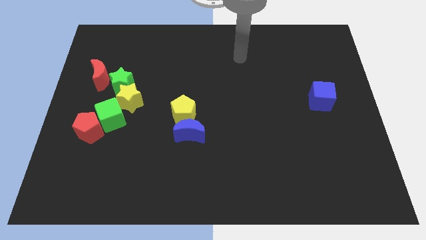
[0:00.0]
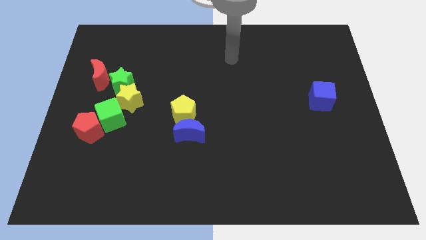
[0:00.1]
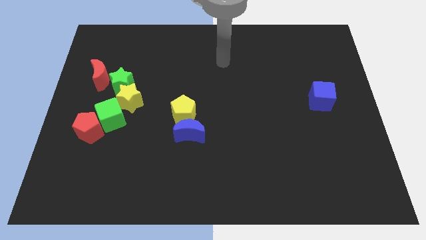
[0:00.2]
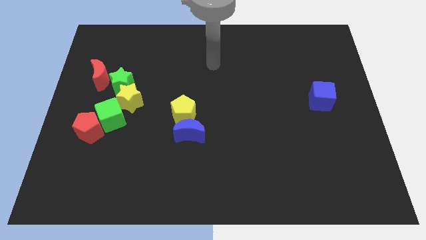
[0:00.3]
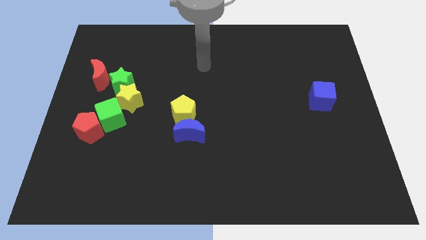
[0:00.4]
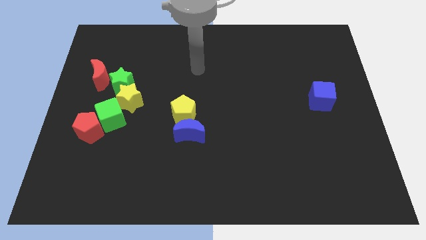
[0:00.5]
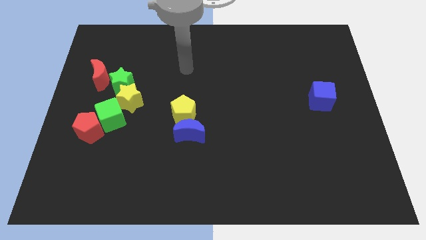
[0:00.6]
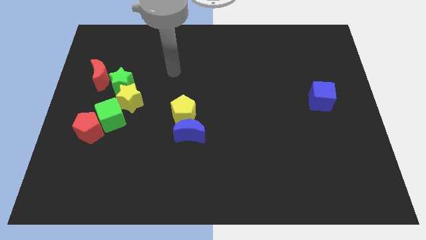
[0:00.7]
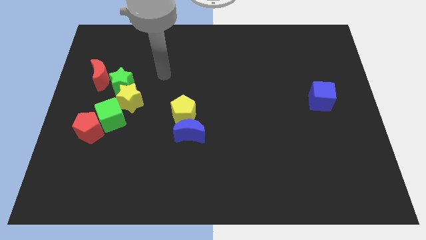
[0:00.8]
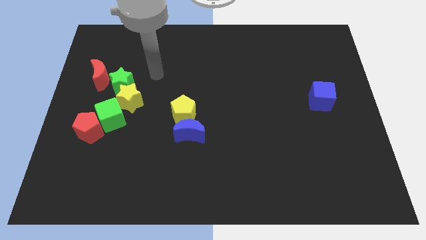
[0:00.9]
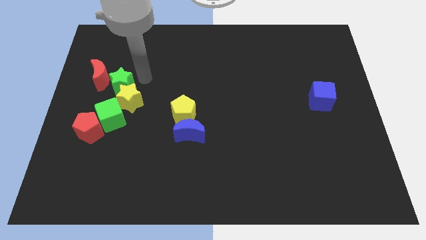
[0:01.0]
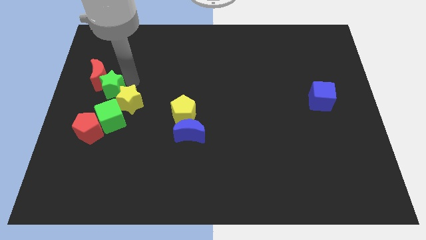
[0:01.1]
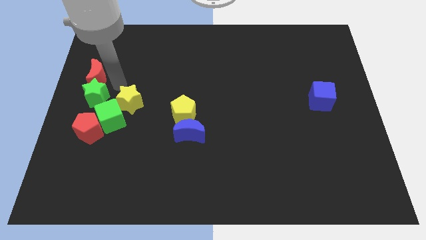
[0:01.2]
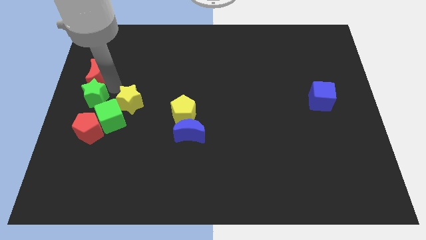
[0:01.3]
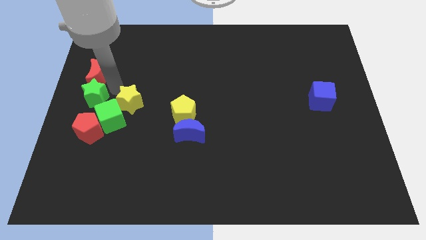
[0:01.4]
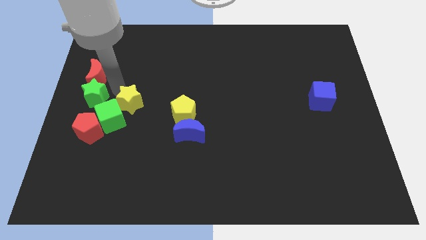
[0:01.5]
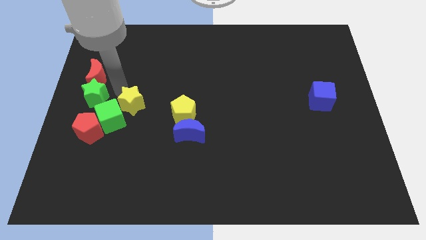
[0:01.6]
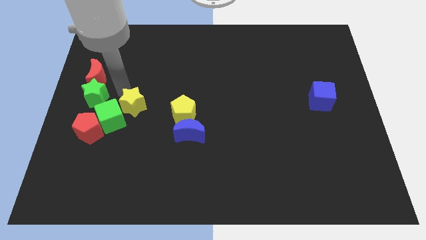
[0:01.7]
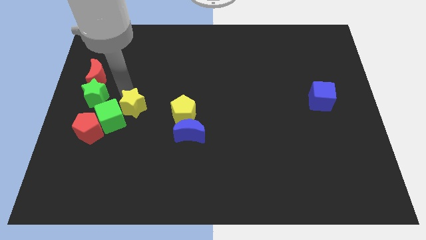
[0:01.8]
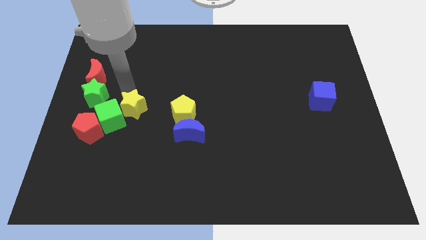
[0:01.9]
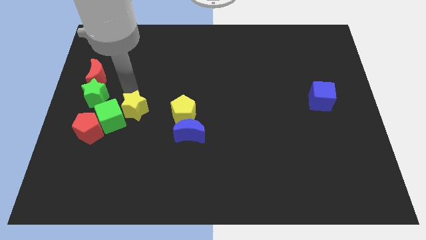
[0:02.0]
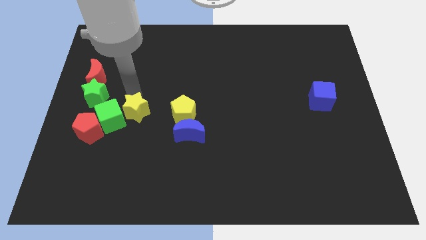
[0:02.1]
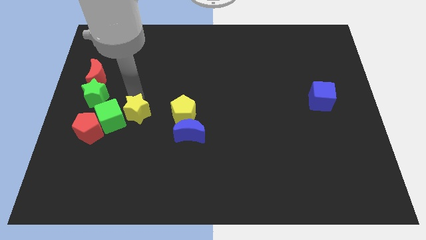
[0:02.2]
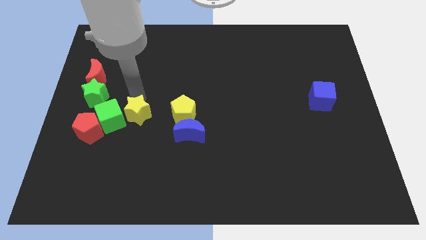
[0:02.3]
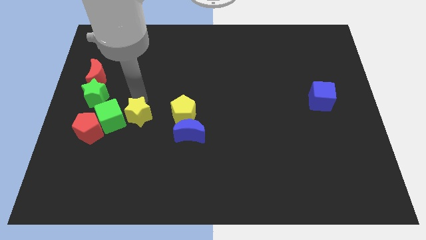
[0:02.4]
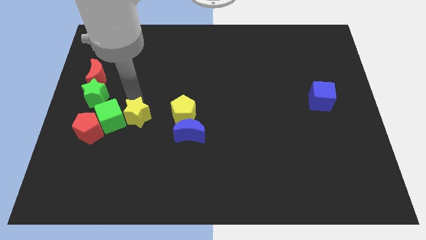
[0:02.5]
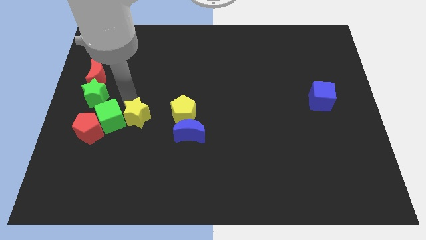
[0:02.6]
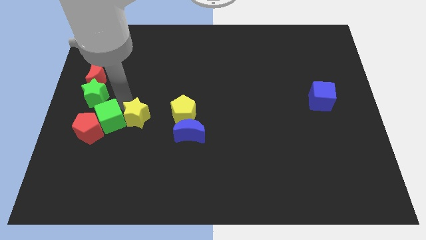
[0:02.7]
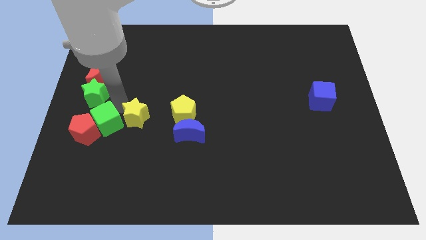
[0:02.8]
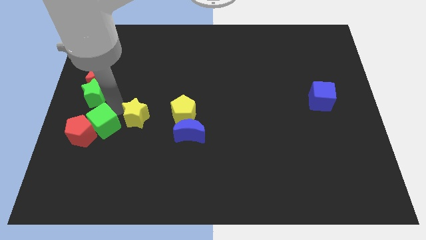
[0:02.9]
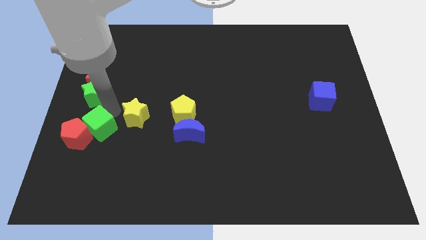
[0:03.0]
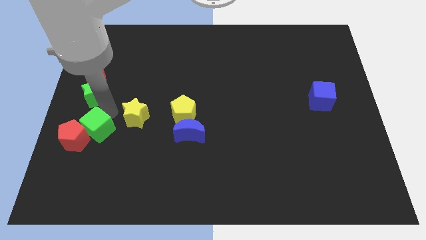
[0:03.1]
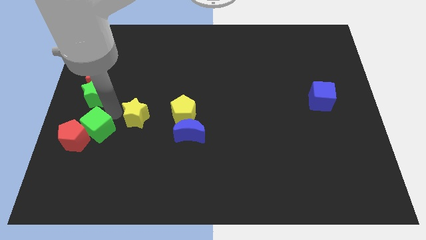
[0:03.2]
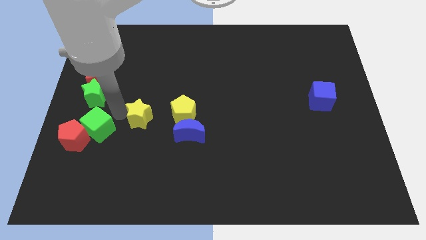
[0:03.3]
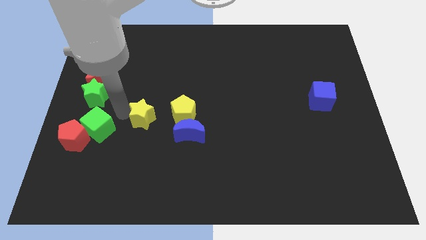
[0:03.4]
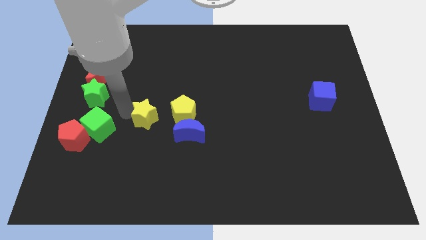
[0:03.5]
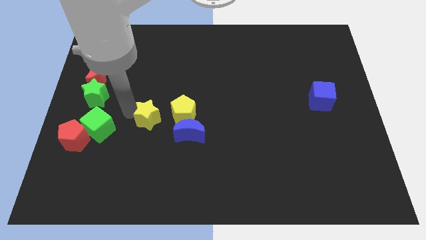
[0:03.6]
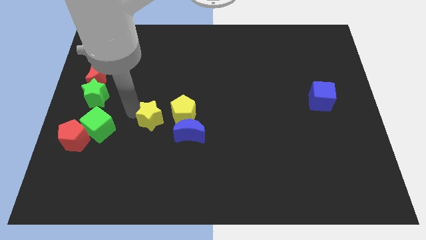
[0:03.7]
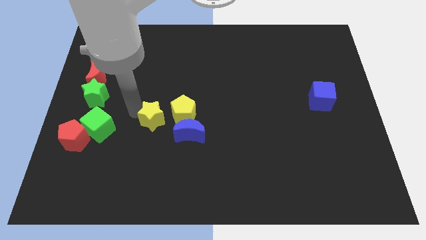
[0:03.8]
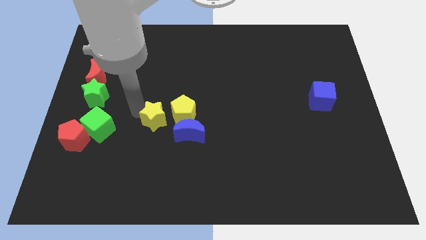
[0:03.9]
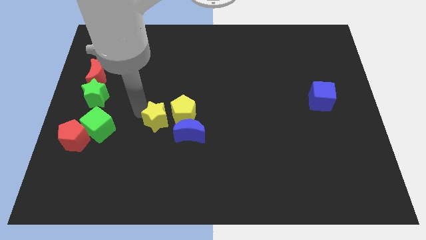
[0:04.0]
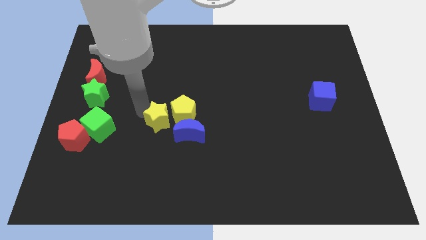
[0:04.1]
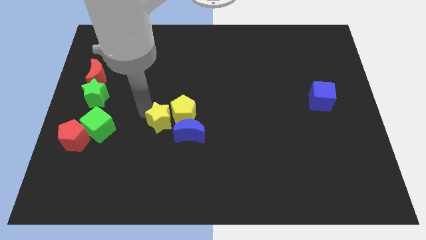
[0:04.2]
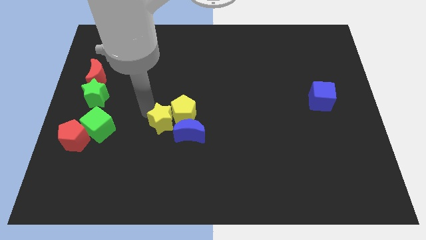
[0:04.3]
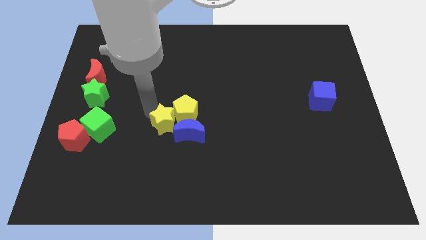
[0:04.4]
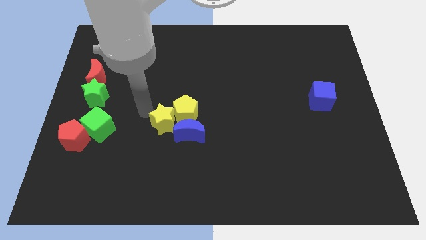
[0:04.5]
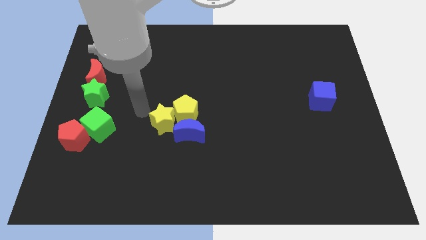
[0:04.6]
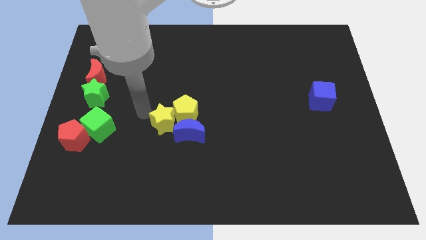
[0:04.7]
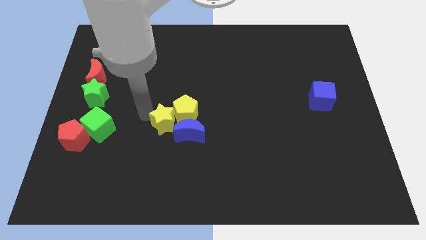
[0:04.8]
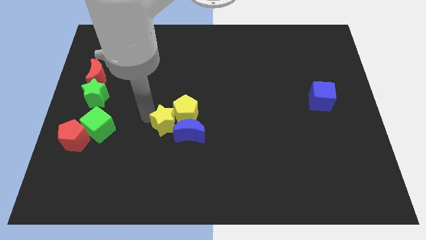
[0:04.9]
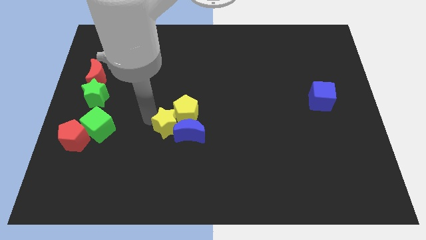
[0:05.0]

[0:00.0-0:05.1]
push the yellow star close to the blue moon

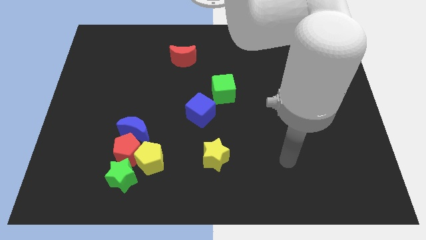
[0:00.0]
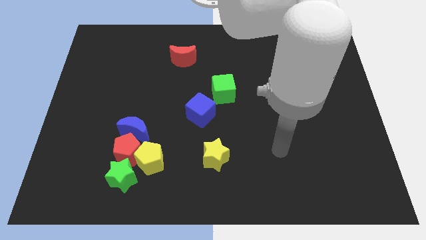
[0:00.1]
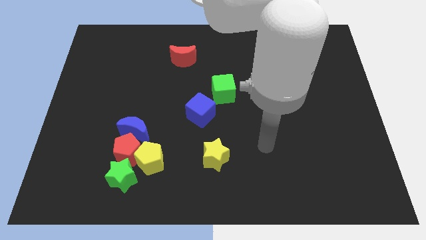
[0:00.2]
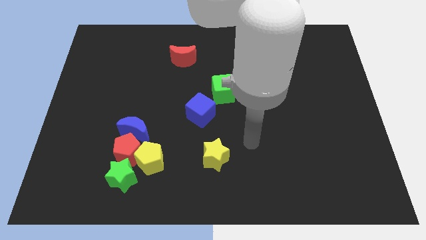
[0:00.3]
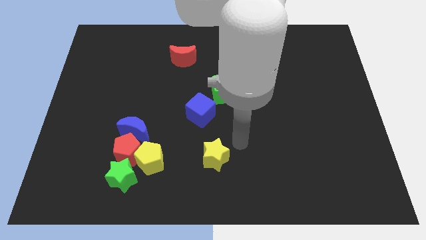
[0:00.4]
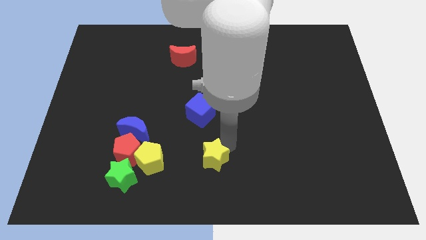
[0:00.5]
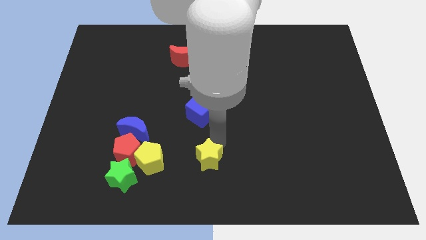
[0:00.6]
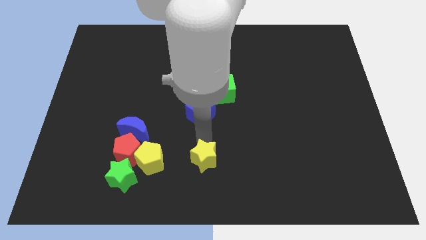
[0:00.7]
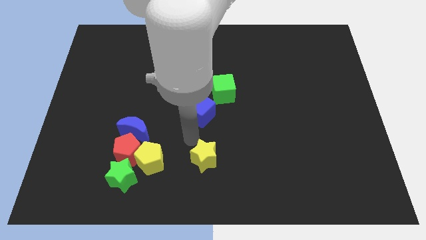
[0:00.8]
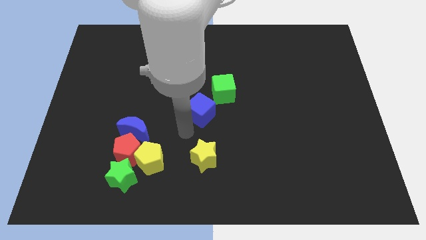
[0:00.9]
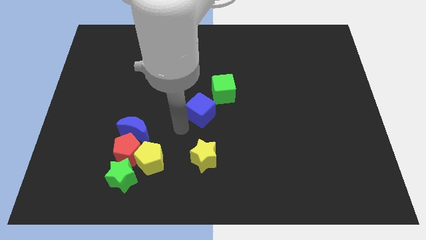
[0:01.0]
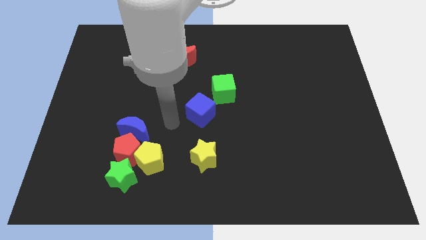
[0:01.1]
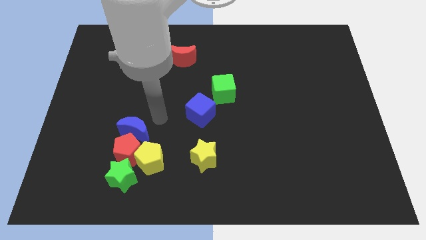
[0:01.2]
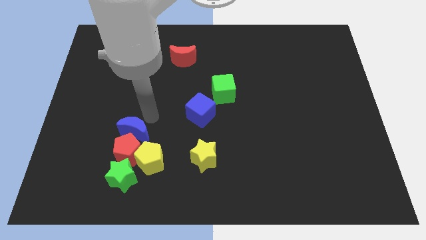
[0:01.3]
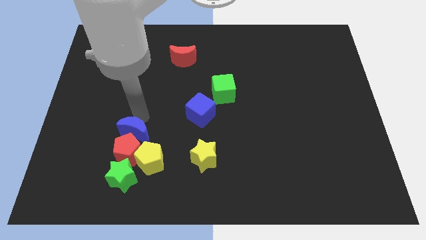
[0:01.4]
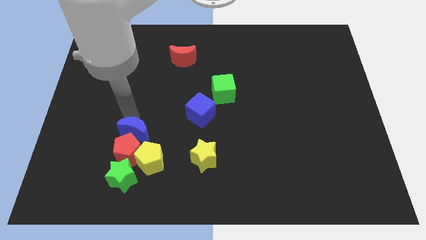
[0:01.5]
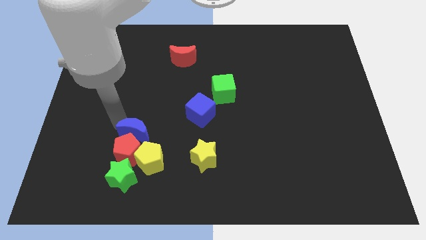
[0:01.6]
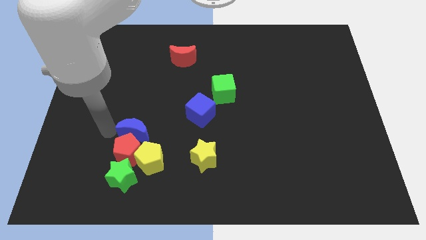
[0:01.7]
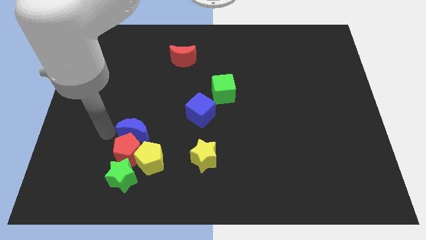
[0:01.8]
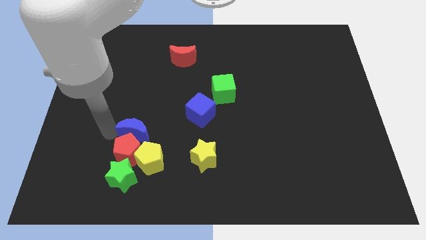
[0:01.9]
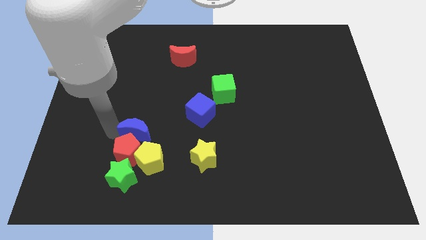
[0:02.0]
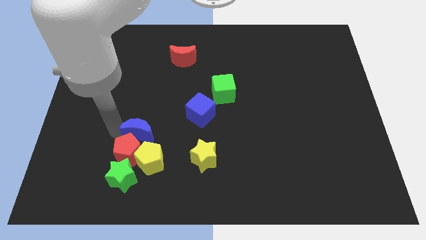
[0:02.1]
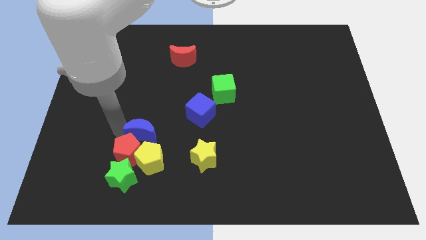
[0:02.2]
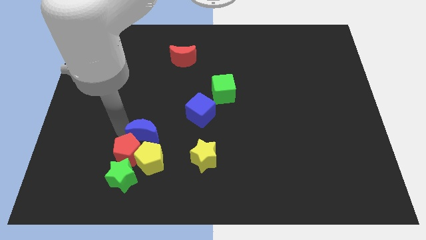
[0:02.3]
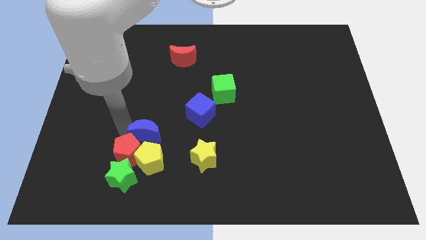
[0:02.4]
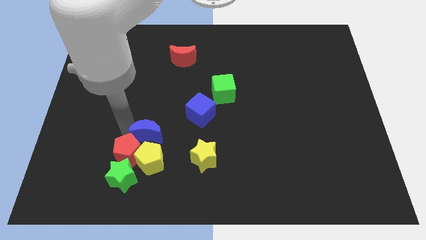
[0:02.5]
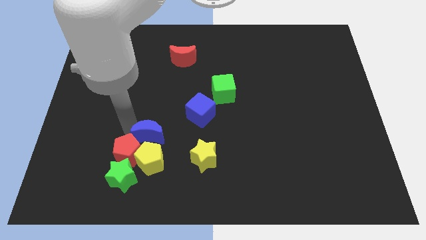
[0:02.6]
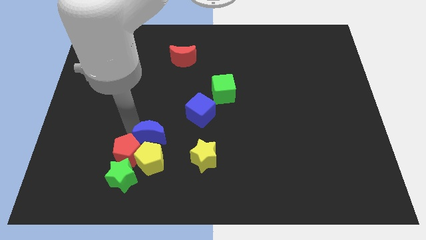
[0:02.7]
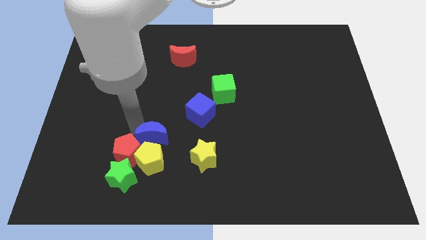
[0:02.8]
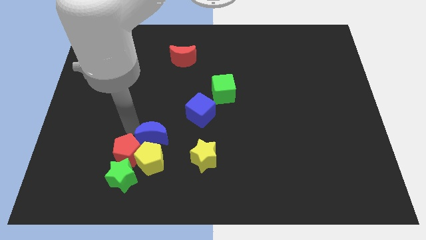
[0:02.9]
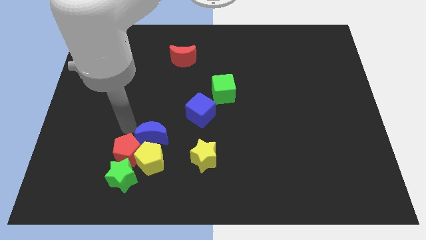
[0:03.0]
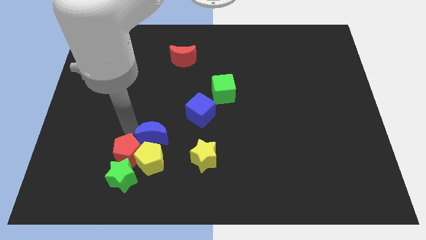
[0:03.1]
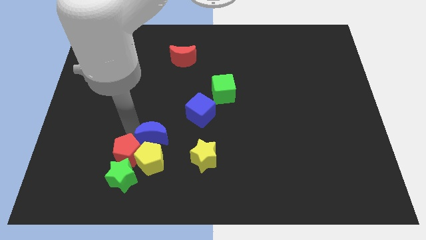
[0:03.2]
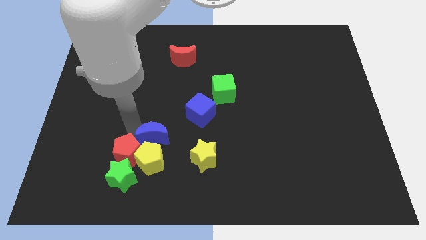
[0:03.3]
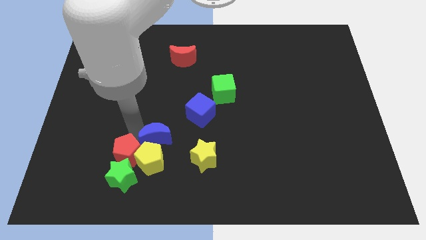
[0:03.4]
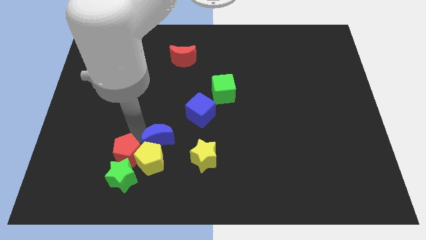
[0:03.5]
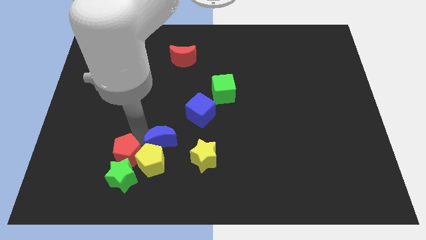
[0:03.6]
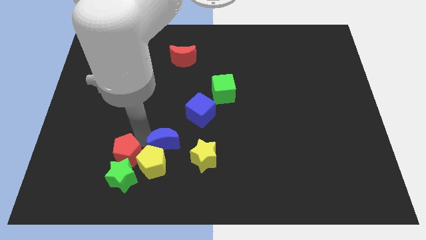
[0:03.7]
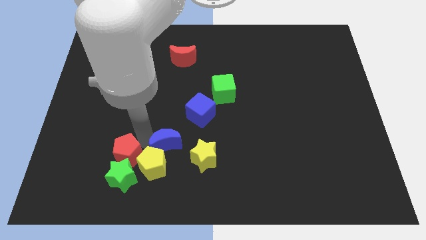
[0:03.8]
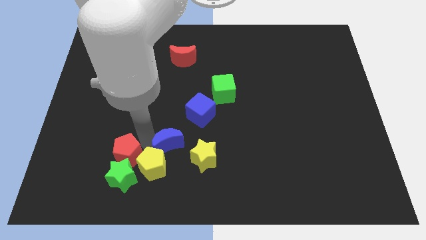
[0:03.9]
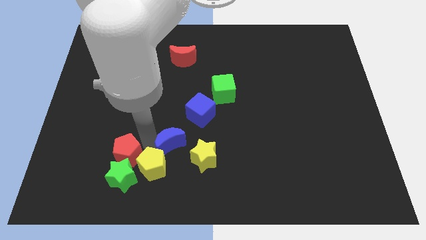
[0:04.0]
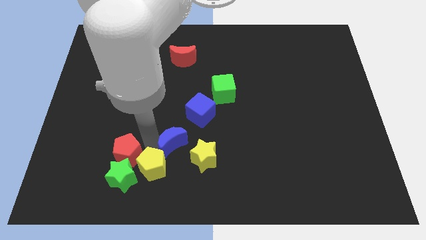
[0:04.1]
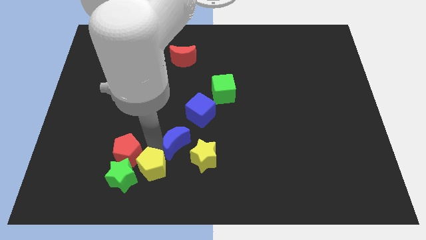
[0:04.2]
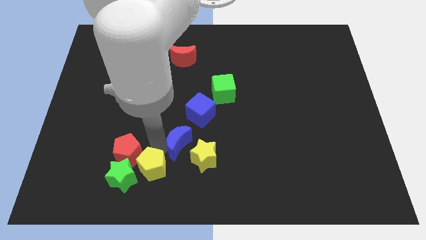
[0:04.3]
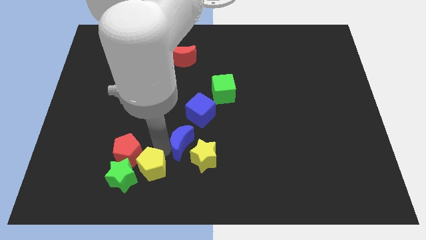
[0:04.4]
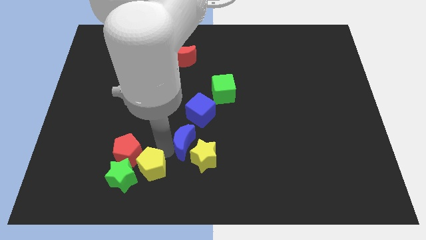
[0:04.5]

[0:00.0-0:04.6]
move the blue moon towards the yellow star
